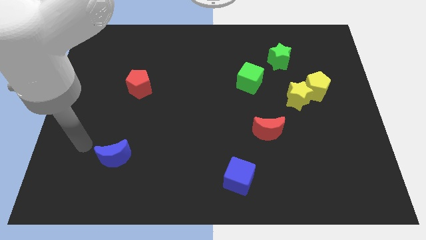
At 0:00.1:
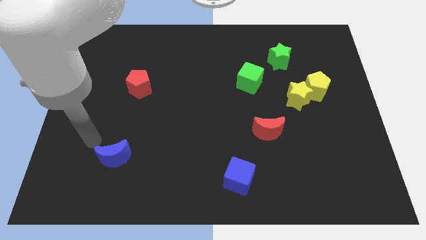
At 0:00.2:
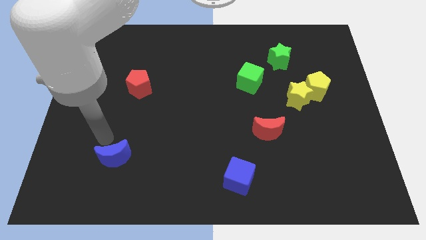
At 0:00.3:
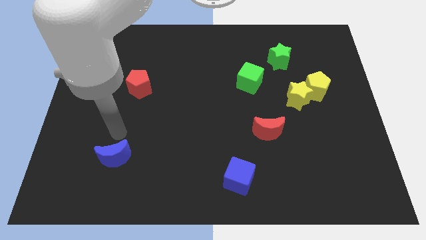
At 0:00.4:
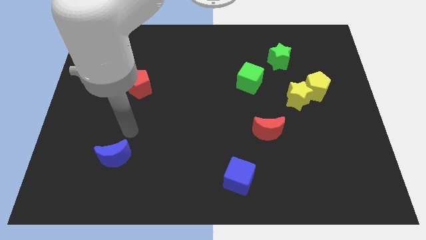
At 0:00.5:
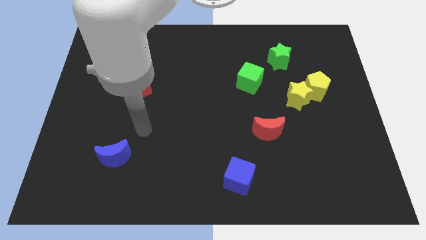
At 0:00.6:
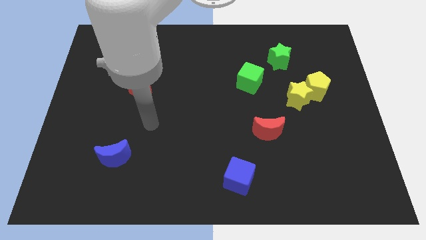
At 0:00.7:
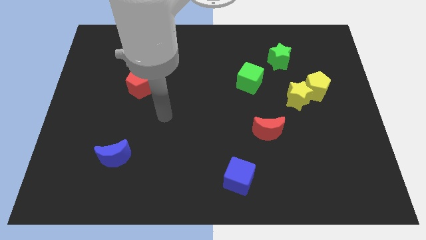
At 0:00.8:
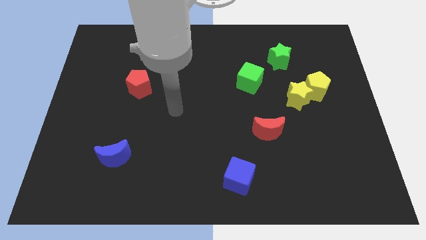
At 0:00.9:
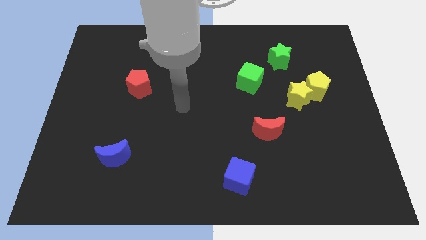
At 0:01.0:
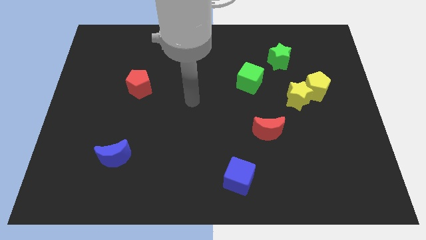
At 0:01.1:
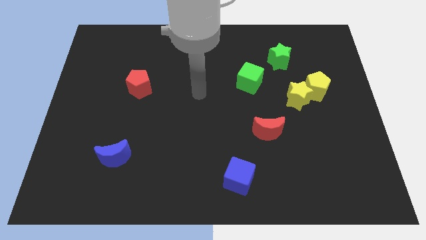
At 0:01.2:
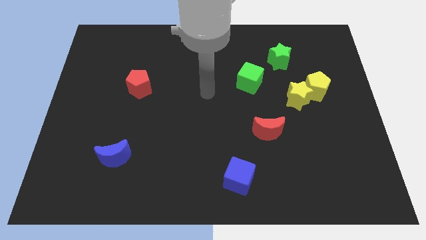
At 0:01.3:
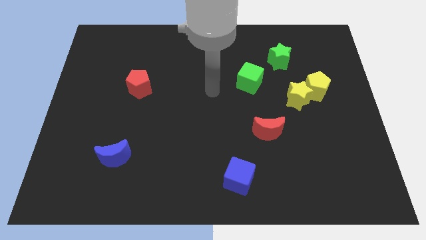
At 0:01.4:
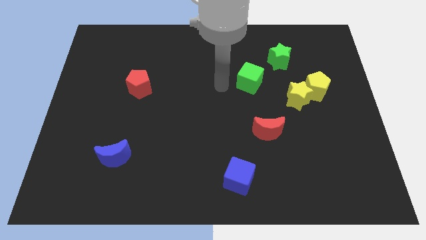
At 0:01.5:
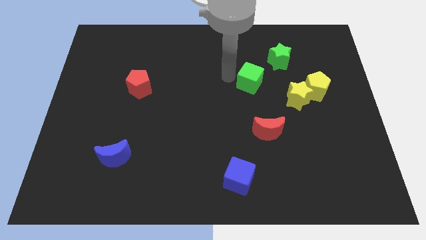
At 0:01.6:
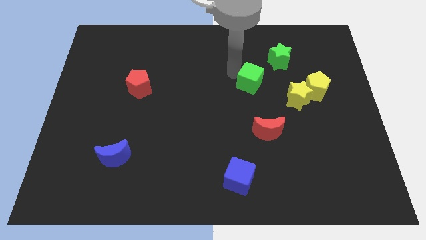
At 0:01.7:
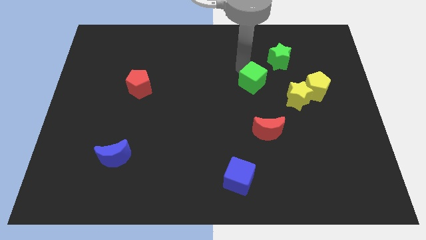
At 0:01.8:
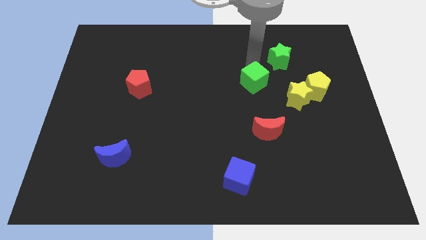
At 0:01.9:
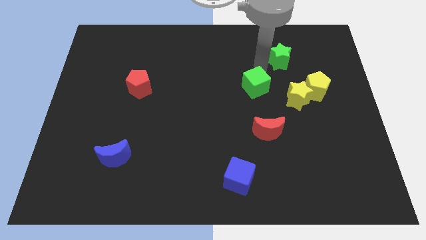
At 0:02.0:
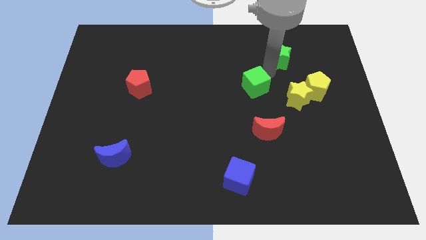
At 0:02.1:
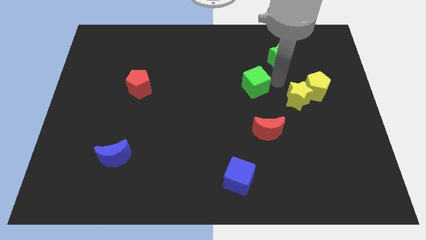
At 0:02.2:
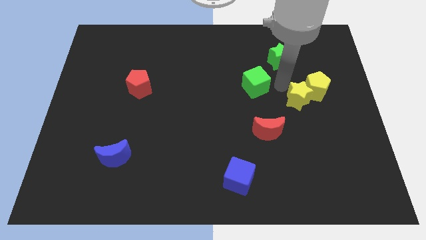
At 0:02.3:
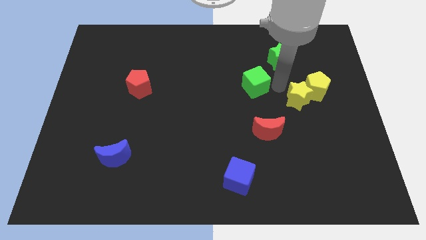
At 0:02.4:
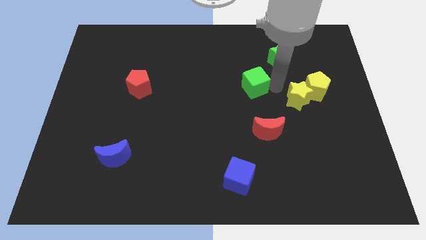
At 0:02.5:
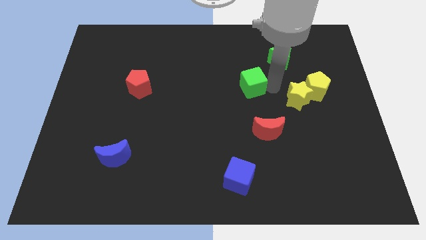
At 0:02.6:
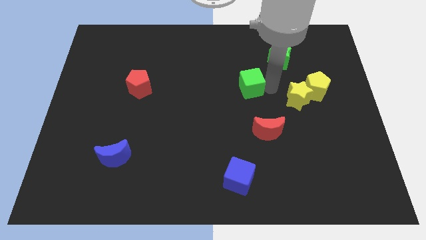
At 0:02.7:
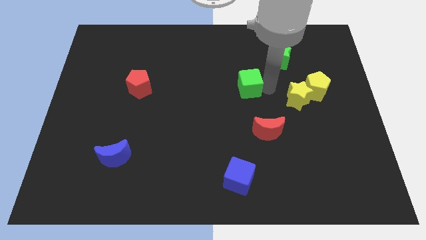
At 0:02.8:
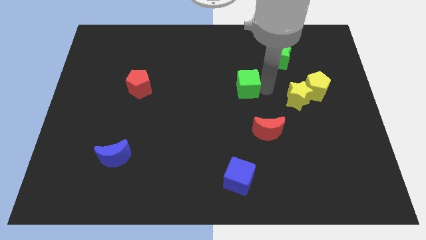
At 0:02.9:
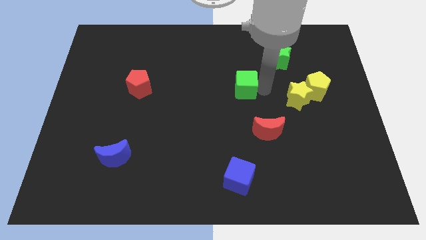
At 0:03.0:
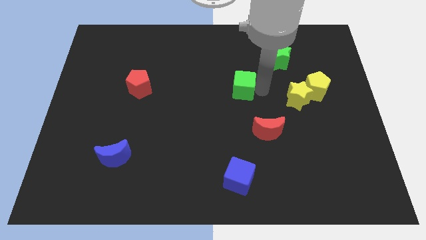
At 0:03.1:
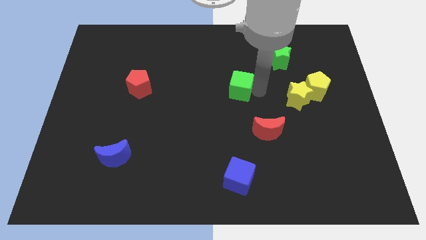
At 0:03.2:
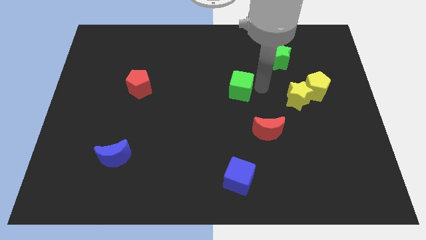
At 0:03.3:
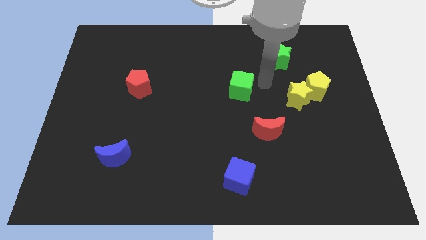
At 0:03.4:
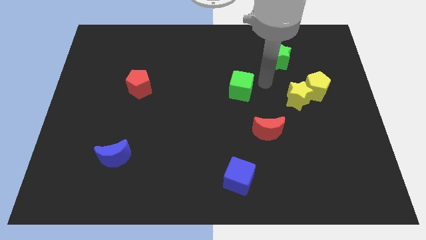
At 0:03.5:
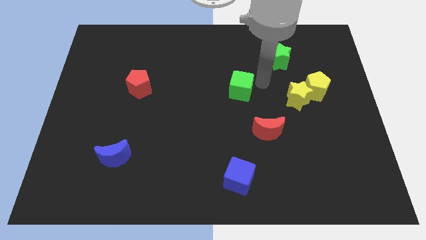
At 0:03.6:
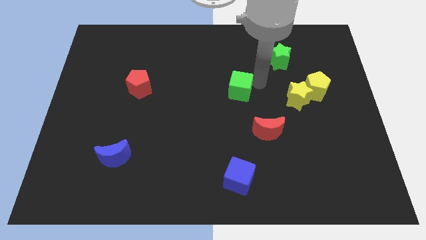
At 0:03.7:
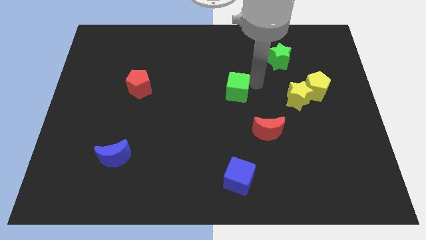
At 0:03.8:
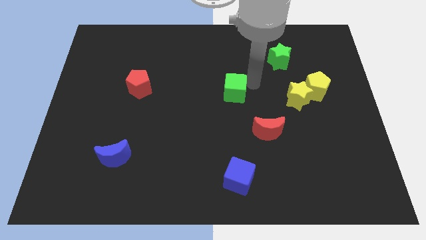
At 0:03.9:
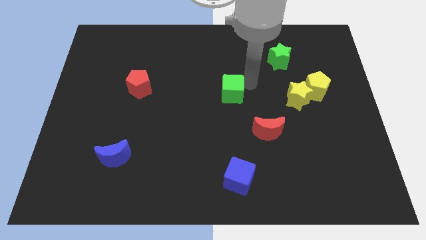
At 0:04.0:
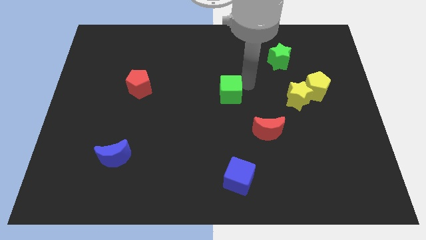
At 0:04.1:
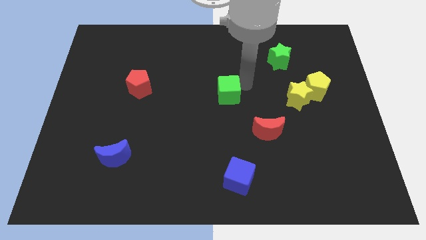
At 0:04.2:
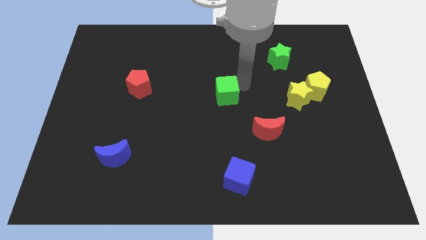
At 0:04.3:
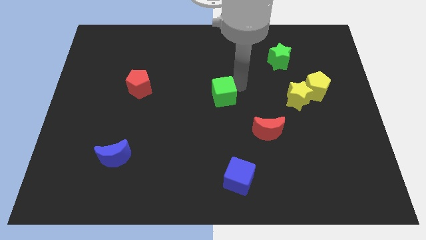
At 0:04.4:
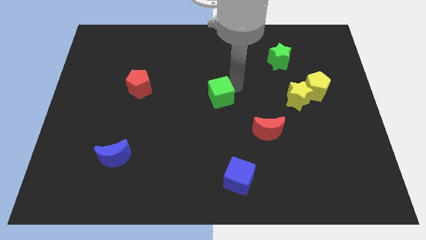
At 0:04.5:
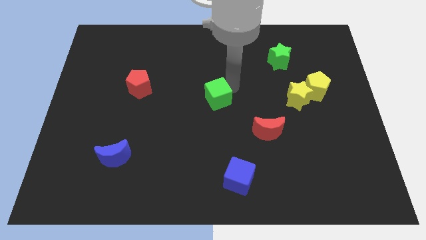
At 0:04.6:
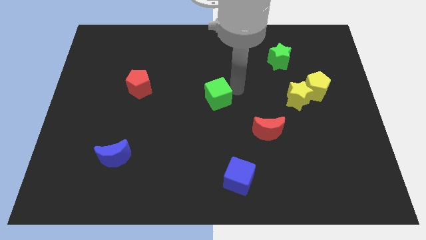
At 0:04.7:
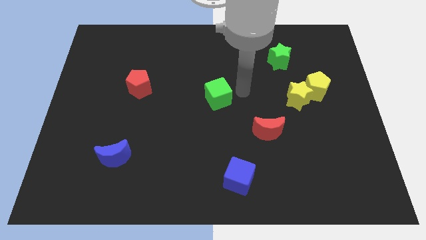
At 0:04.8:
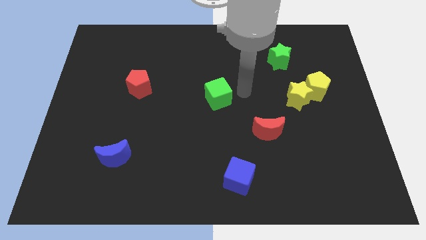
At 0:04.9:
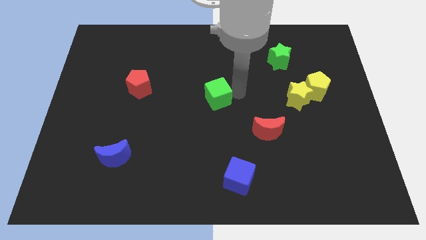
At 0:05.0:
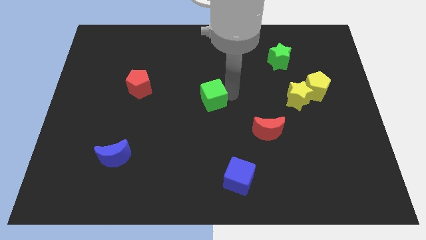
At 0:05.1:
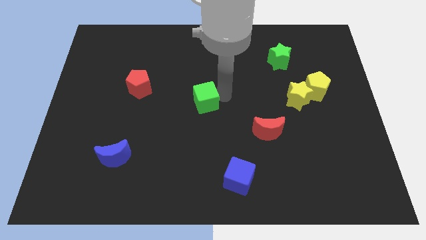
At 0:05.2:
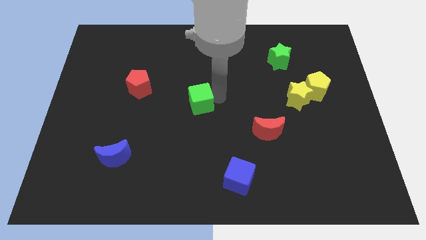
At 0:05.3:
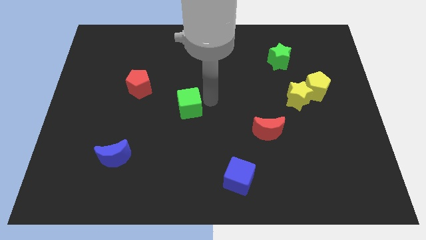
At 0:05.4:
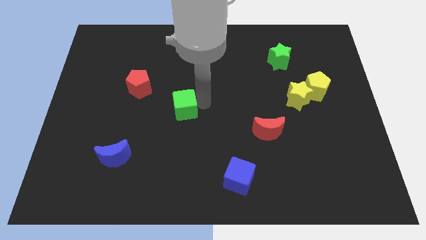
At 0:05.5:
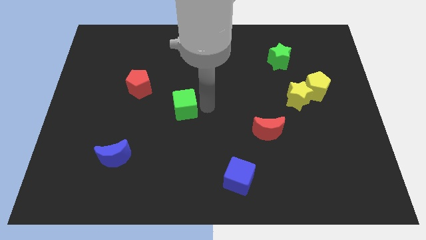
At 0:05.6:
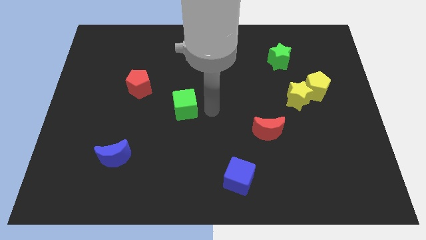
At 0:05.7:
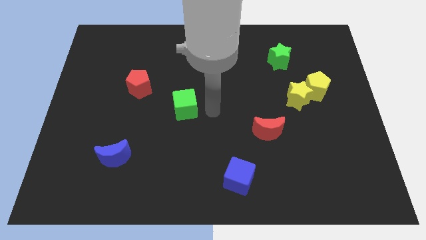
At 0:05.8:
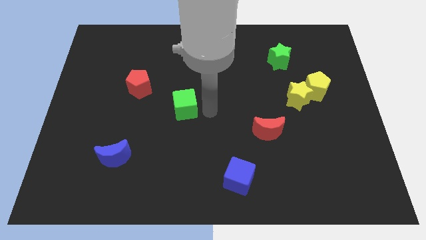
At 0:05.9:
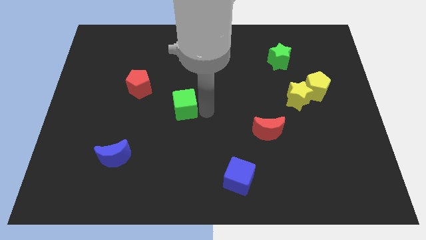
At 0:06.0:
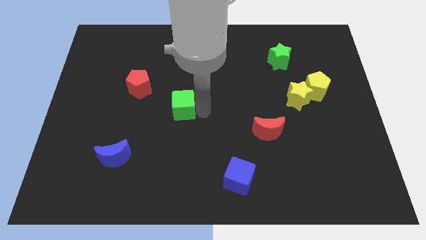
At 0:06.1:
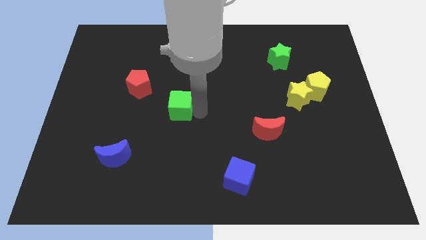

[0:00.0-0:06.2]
push the green cube diagonally down and to the right of the red pentagon
